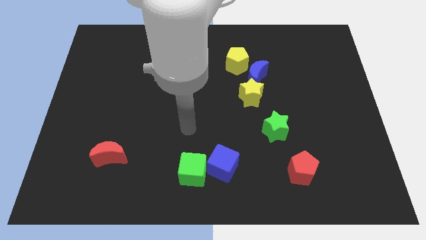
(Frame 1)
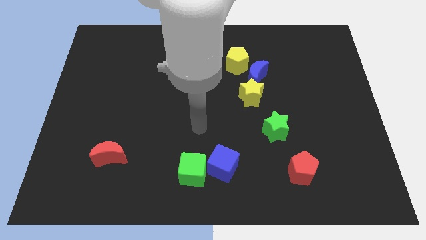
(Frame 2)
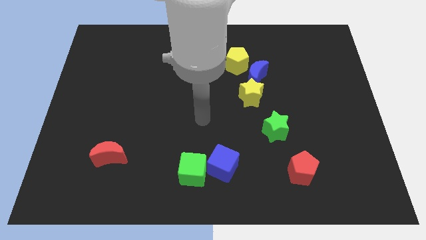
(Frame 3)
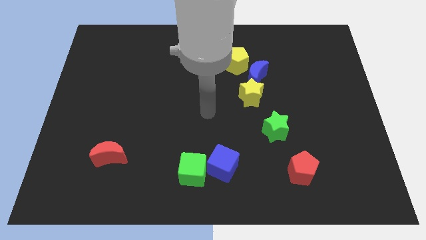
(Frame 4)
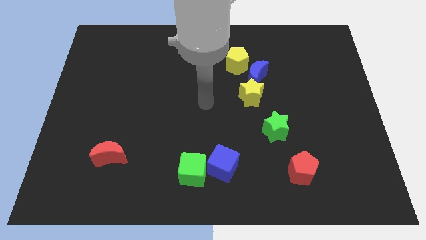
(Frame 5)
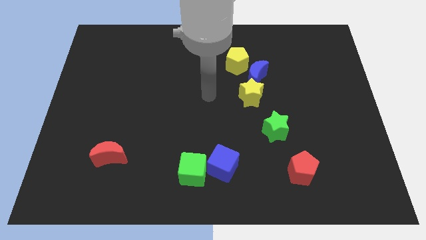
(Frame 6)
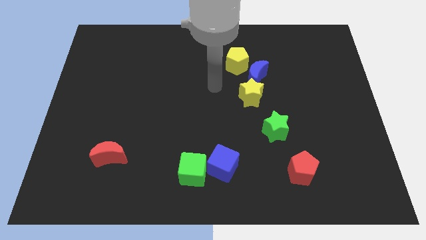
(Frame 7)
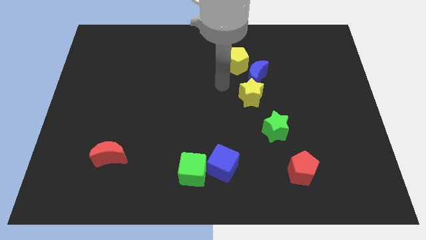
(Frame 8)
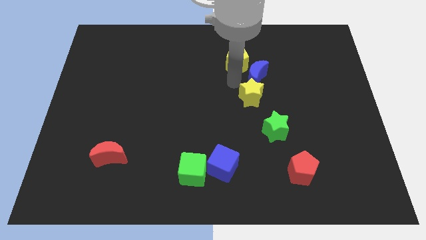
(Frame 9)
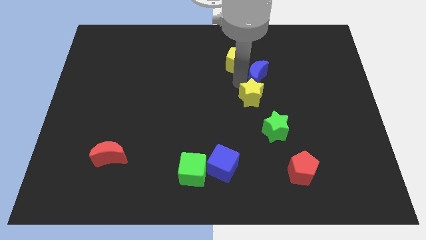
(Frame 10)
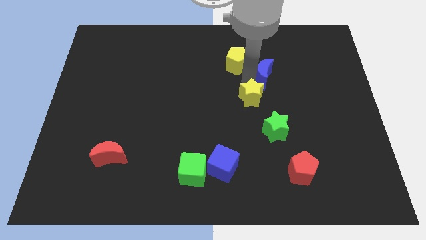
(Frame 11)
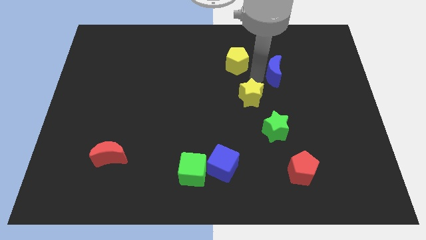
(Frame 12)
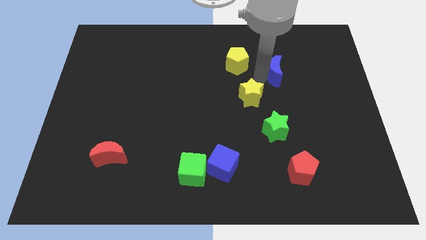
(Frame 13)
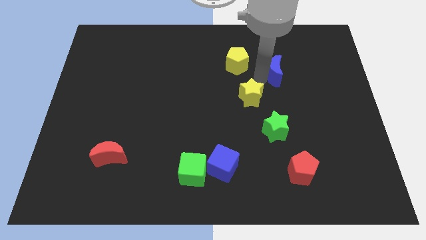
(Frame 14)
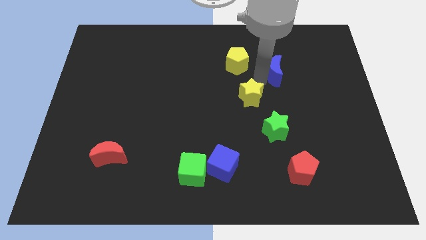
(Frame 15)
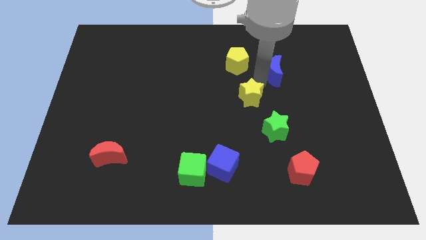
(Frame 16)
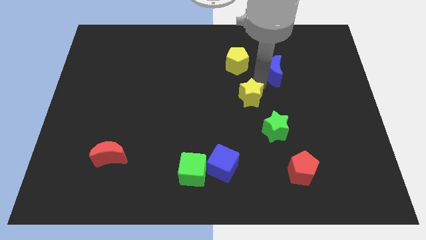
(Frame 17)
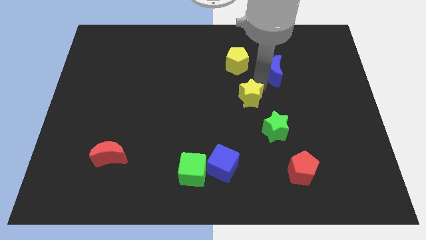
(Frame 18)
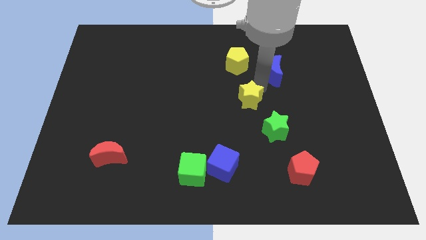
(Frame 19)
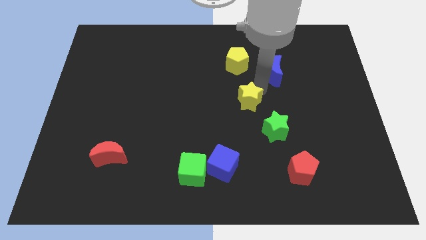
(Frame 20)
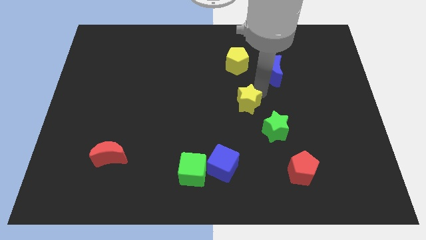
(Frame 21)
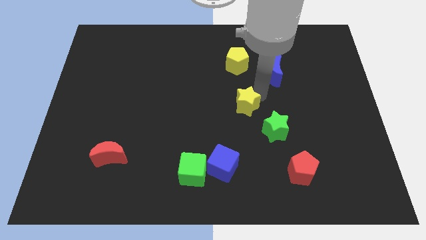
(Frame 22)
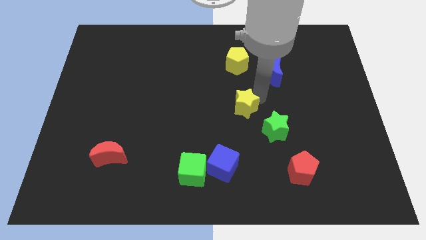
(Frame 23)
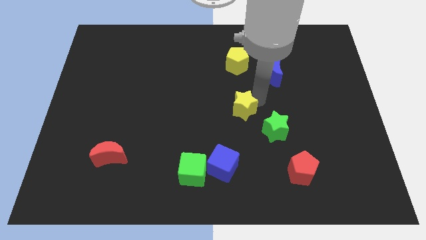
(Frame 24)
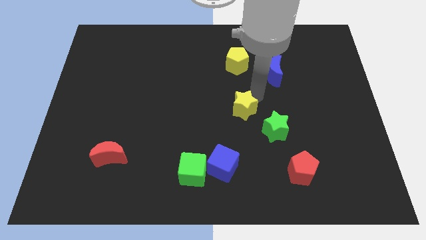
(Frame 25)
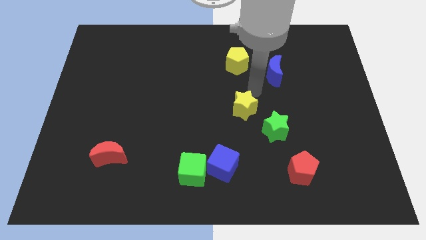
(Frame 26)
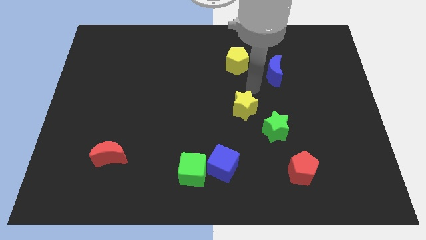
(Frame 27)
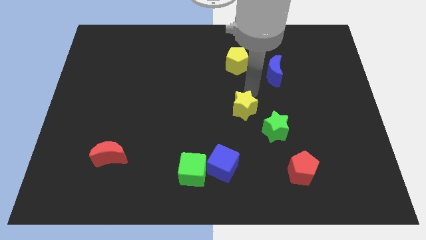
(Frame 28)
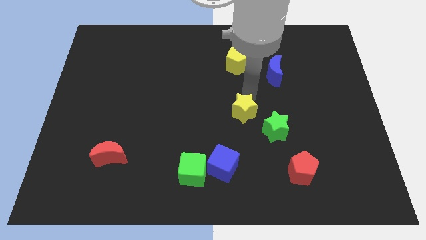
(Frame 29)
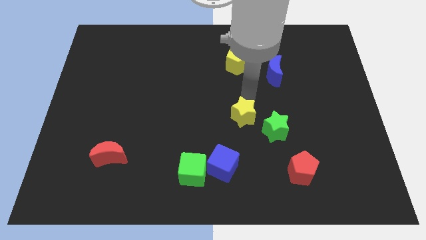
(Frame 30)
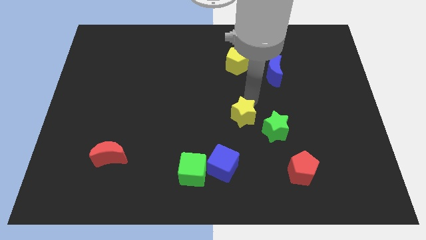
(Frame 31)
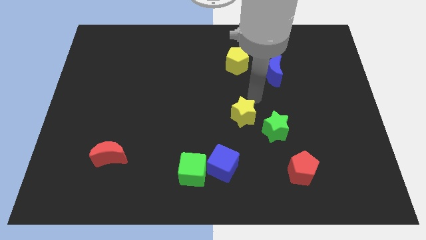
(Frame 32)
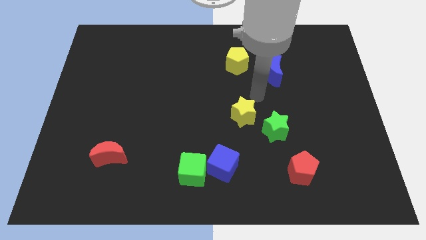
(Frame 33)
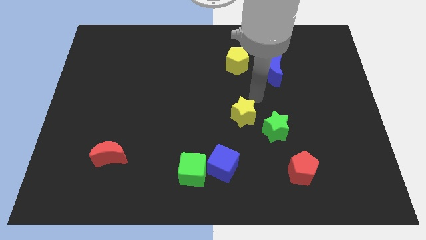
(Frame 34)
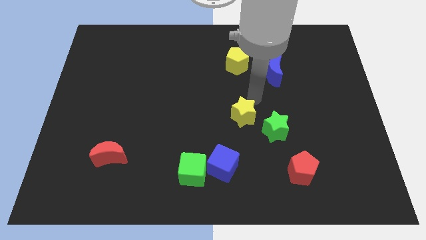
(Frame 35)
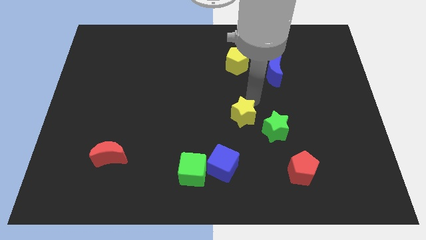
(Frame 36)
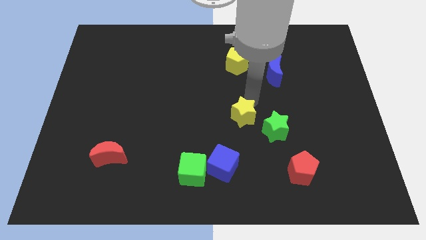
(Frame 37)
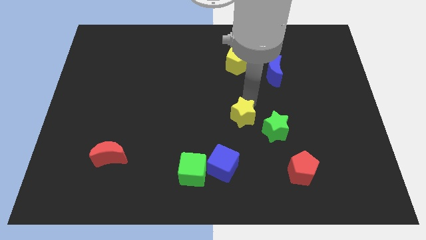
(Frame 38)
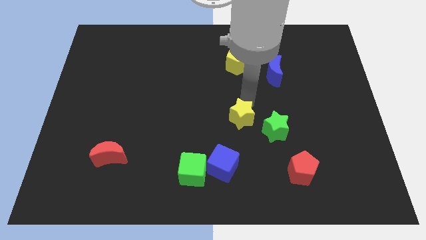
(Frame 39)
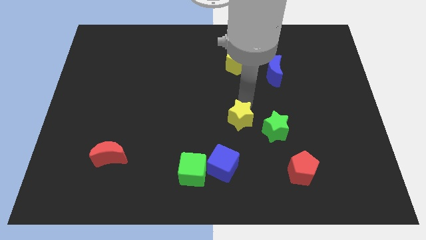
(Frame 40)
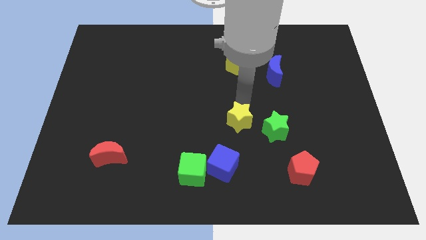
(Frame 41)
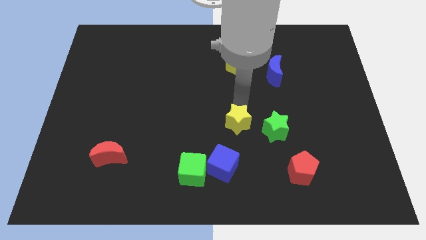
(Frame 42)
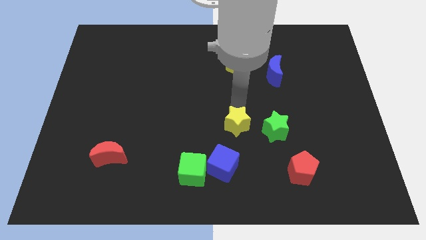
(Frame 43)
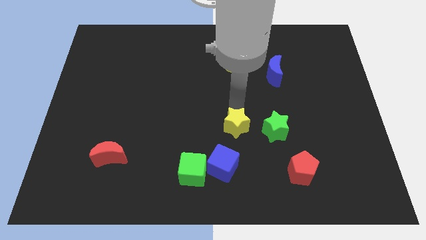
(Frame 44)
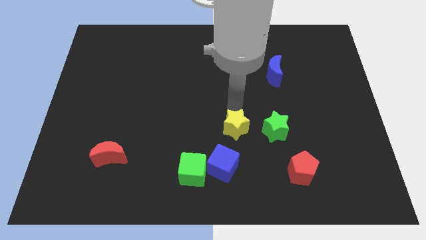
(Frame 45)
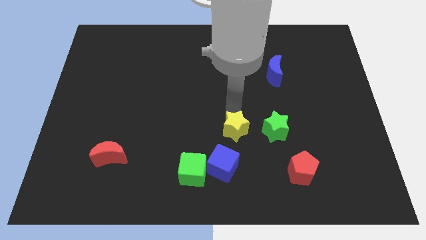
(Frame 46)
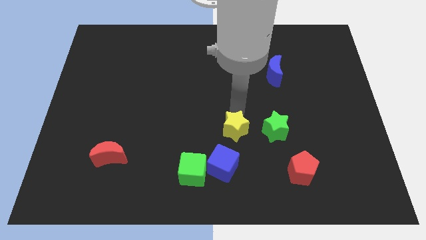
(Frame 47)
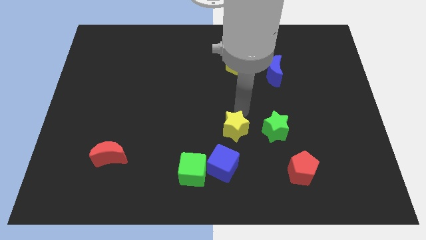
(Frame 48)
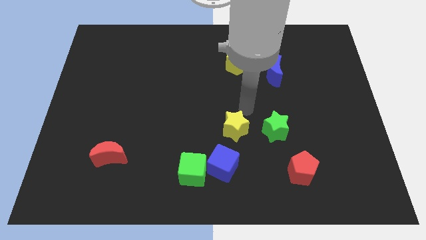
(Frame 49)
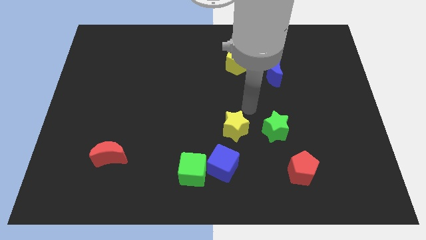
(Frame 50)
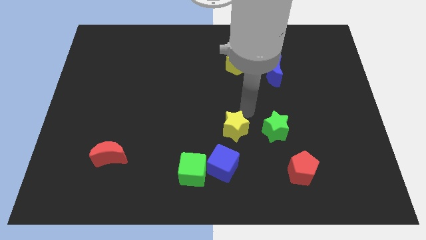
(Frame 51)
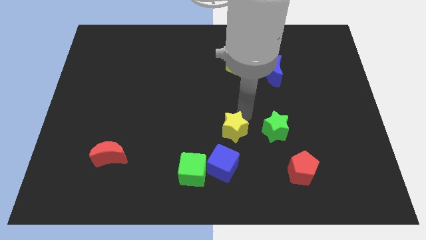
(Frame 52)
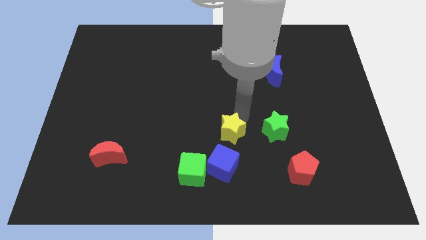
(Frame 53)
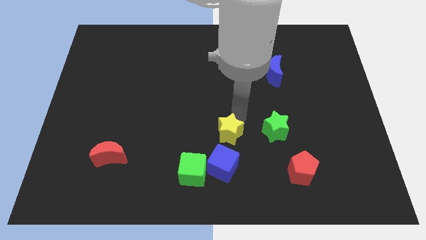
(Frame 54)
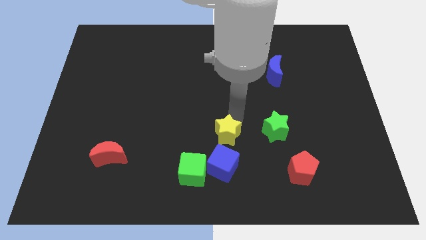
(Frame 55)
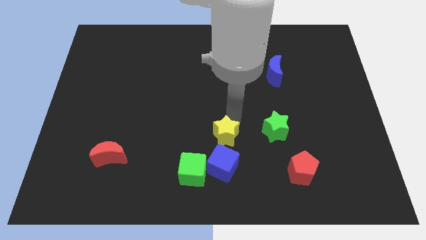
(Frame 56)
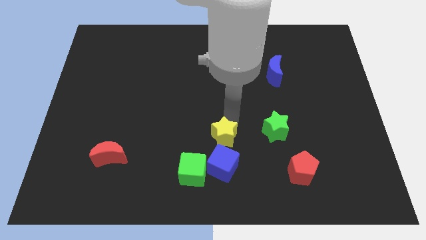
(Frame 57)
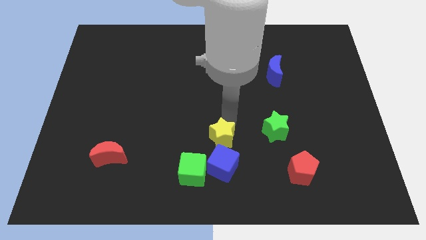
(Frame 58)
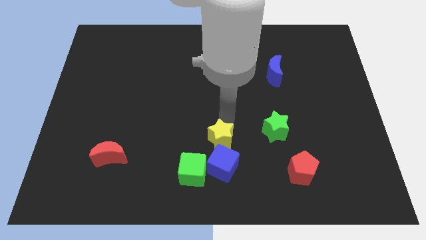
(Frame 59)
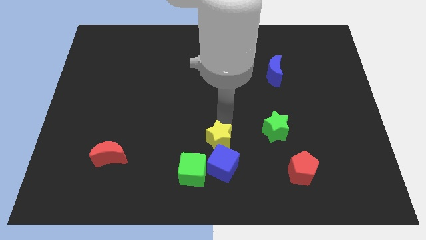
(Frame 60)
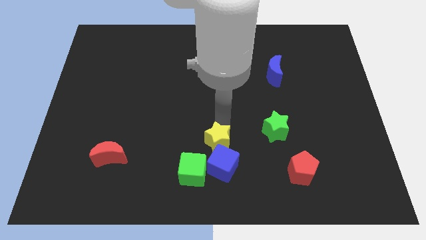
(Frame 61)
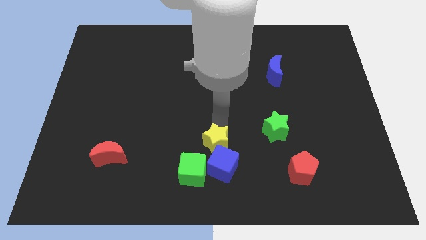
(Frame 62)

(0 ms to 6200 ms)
put the yellow star to the blue cube

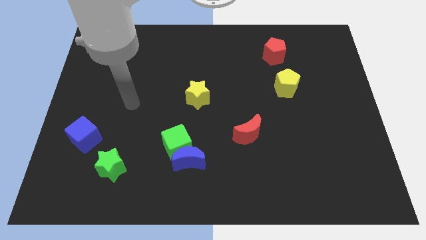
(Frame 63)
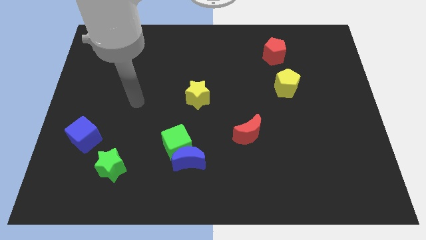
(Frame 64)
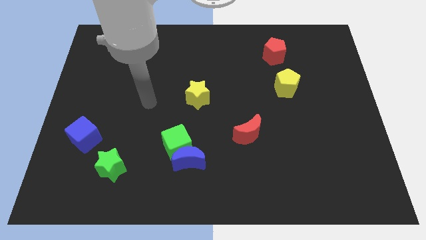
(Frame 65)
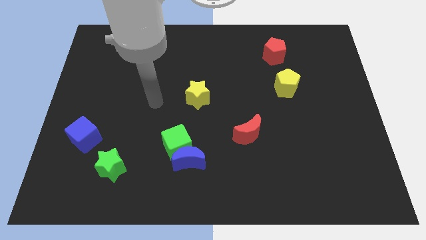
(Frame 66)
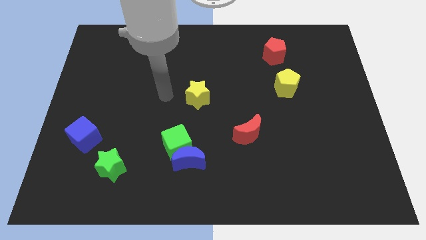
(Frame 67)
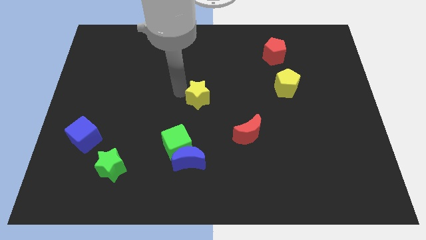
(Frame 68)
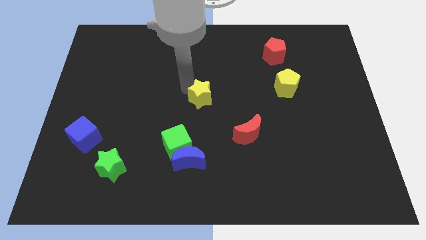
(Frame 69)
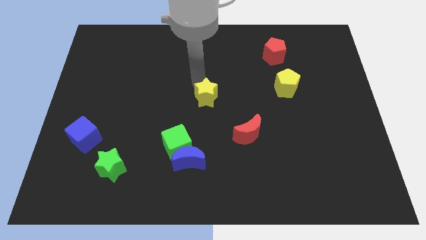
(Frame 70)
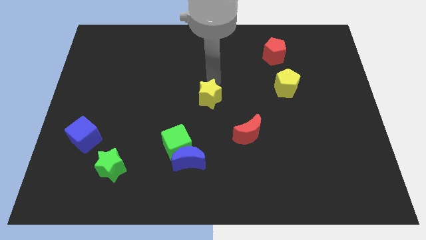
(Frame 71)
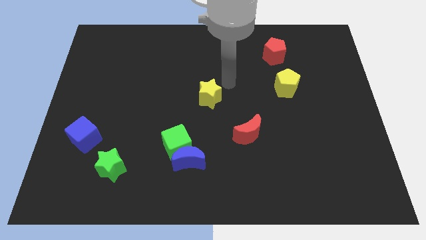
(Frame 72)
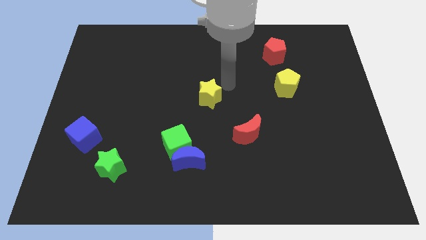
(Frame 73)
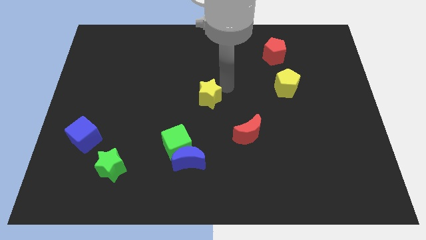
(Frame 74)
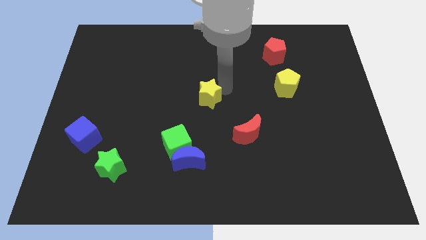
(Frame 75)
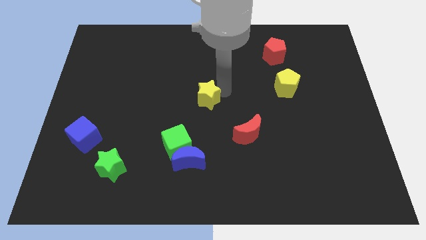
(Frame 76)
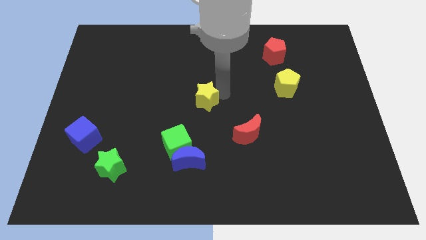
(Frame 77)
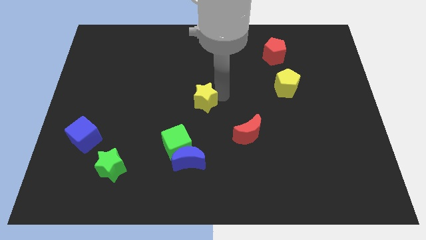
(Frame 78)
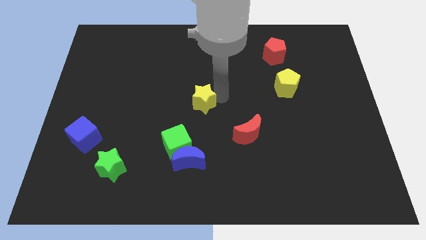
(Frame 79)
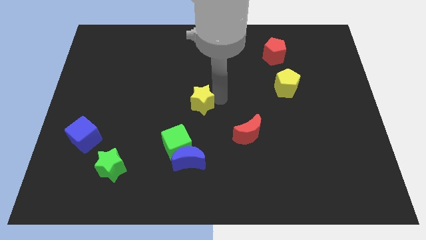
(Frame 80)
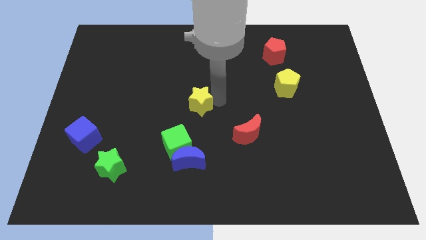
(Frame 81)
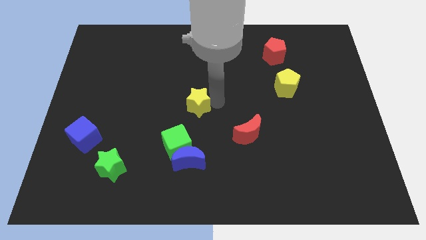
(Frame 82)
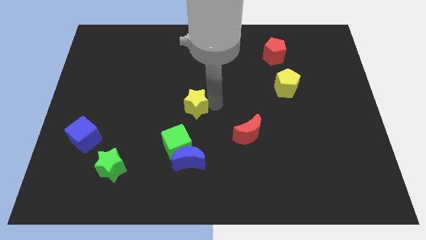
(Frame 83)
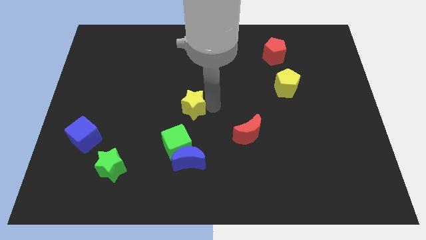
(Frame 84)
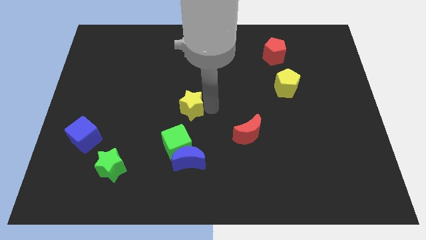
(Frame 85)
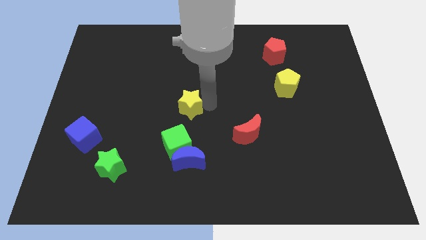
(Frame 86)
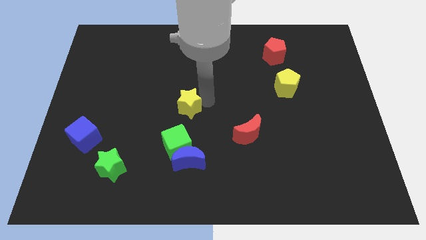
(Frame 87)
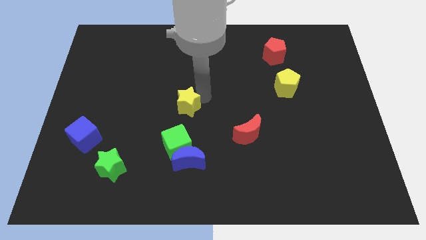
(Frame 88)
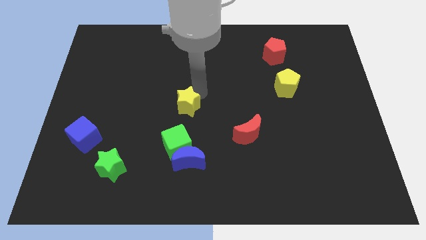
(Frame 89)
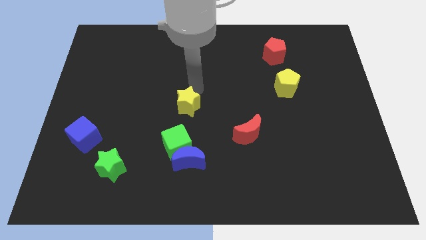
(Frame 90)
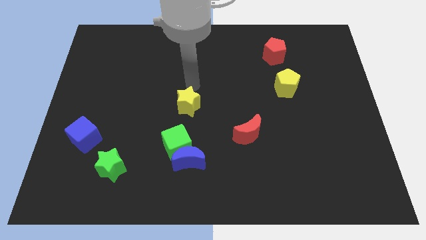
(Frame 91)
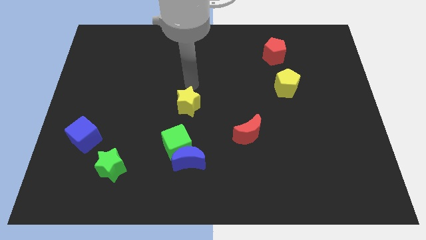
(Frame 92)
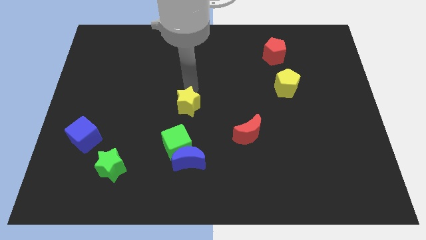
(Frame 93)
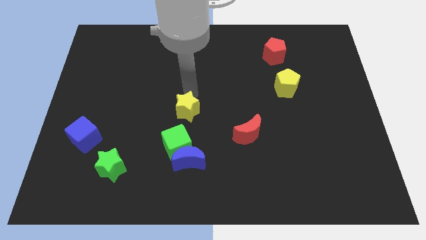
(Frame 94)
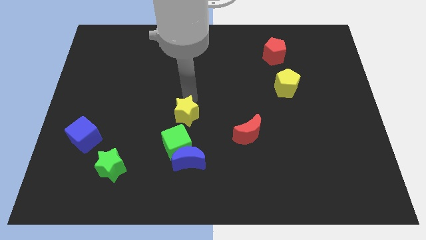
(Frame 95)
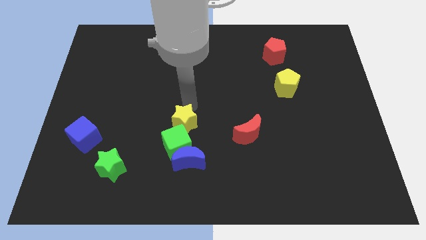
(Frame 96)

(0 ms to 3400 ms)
move the yellow star towards the green cube
